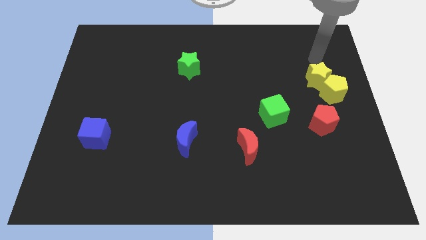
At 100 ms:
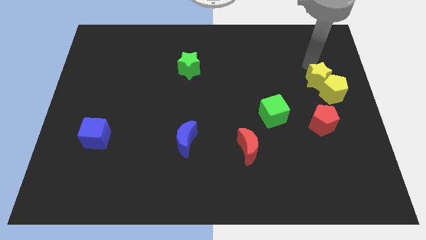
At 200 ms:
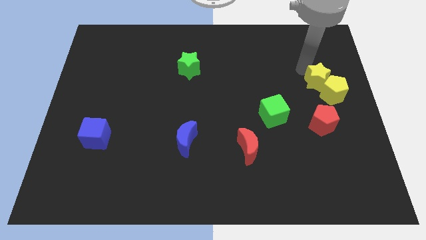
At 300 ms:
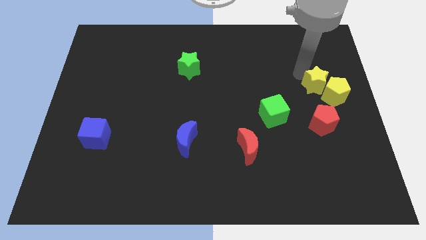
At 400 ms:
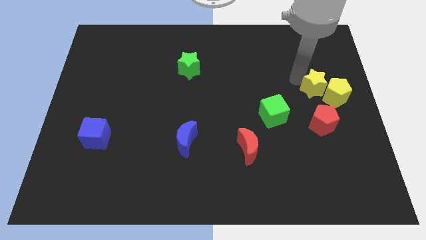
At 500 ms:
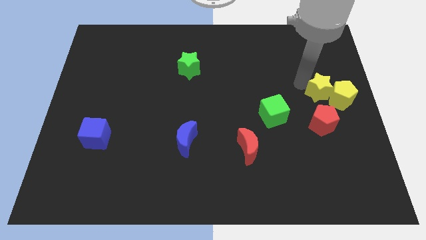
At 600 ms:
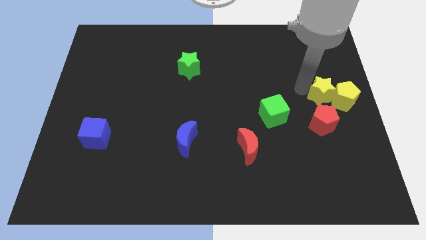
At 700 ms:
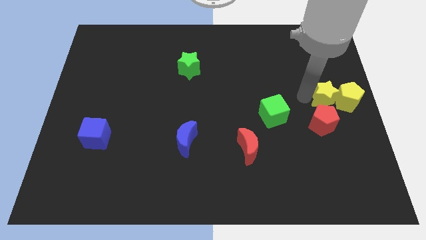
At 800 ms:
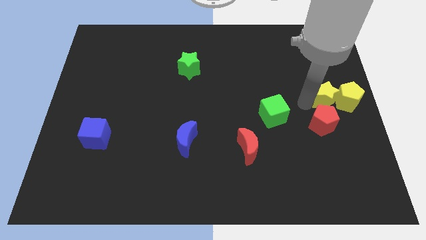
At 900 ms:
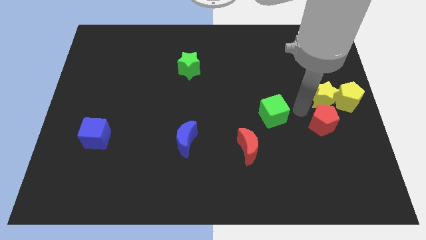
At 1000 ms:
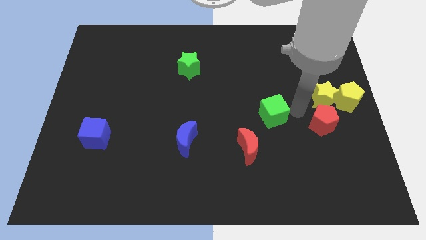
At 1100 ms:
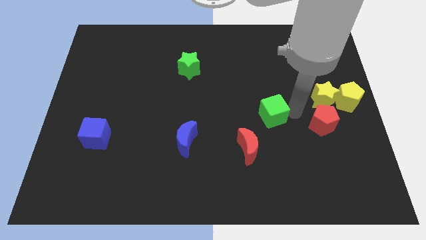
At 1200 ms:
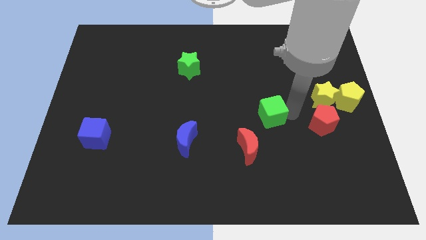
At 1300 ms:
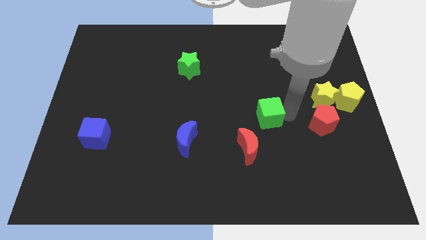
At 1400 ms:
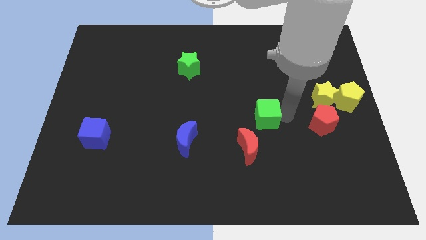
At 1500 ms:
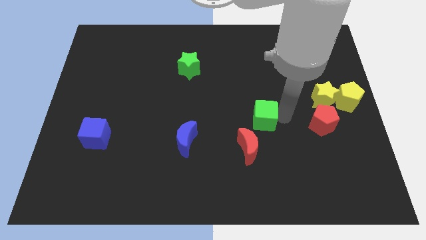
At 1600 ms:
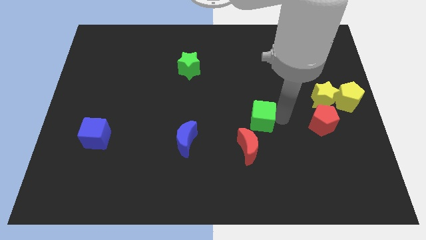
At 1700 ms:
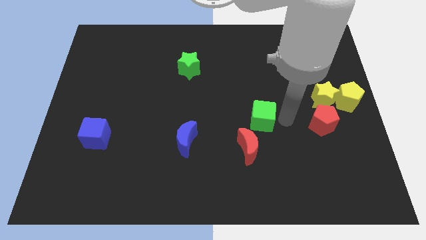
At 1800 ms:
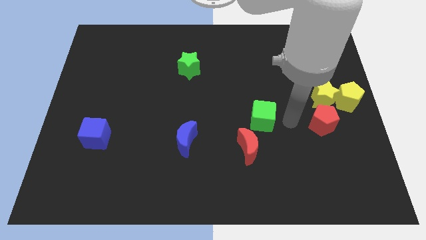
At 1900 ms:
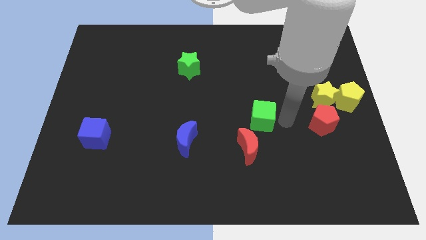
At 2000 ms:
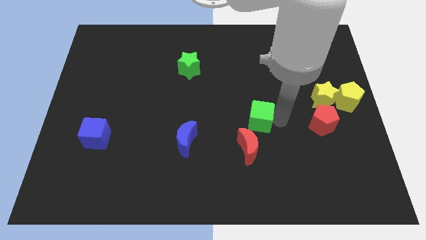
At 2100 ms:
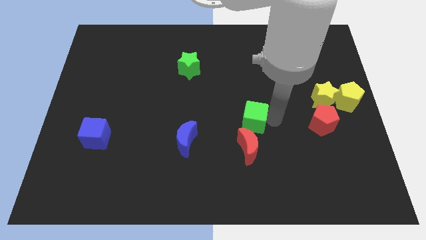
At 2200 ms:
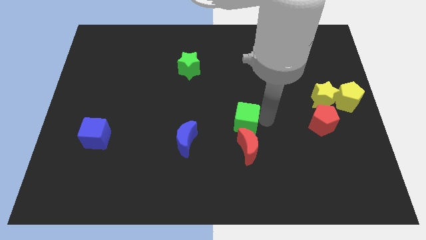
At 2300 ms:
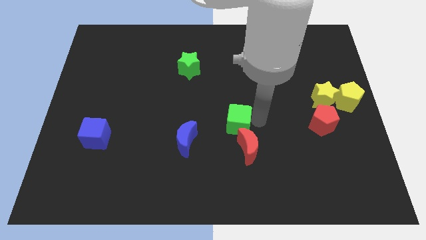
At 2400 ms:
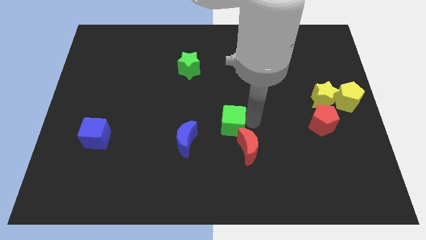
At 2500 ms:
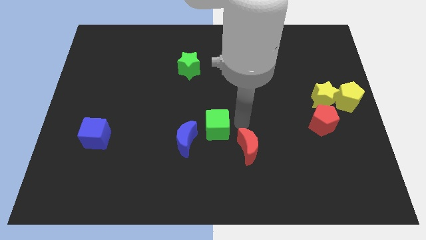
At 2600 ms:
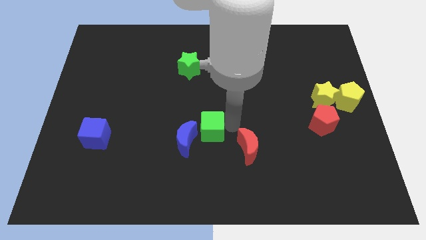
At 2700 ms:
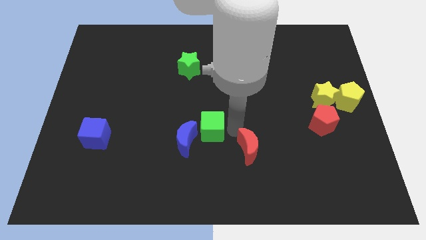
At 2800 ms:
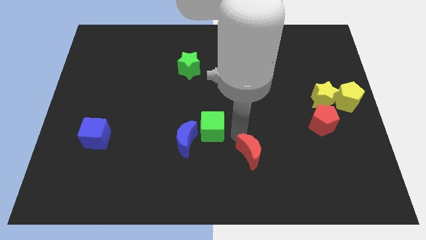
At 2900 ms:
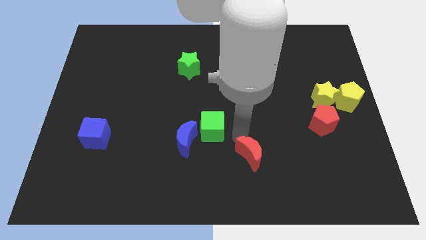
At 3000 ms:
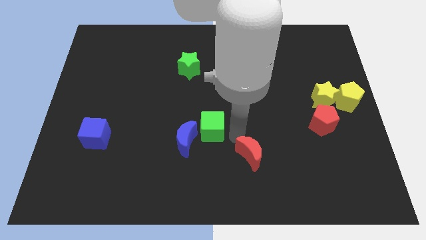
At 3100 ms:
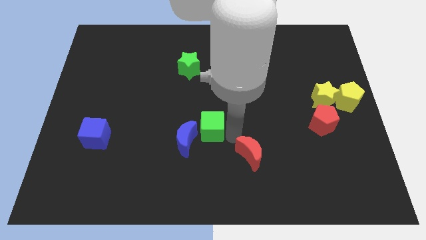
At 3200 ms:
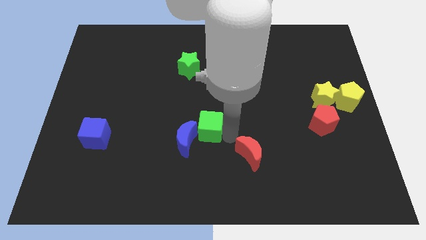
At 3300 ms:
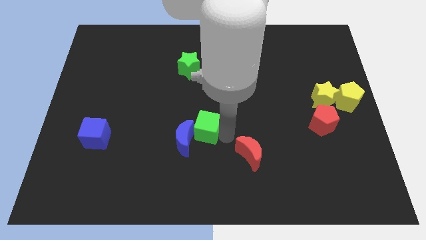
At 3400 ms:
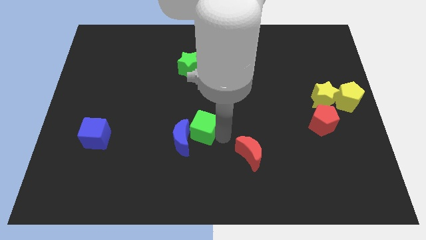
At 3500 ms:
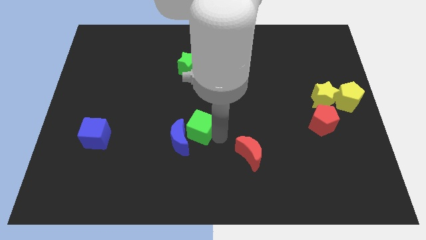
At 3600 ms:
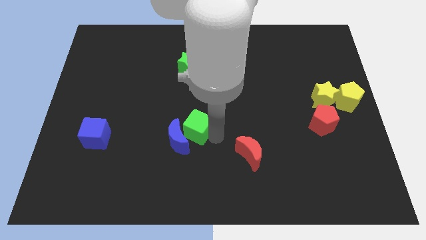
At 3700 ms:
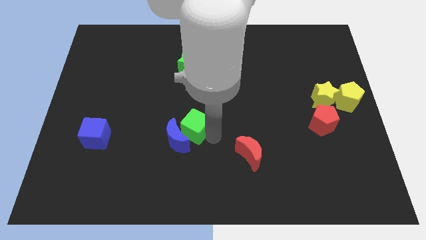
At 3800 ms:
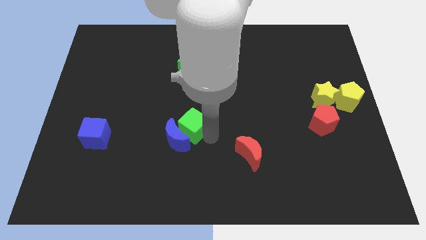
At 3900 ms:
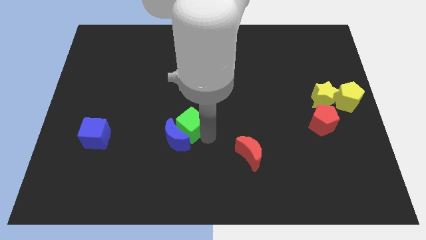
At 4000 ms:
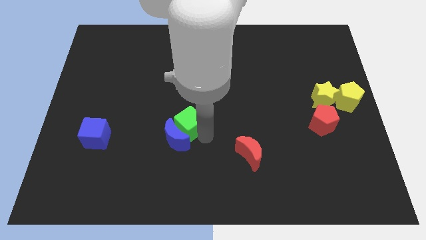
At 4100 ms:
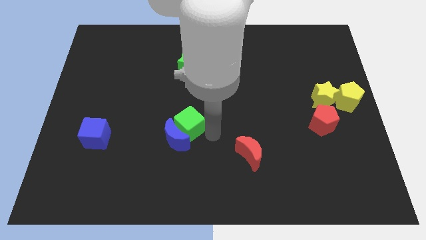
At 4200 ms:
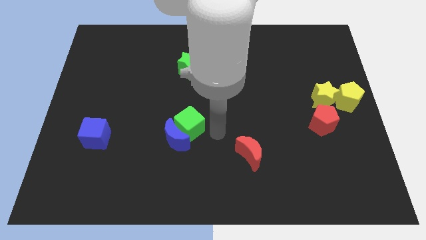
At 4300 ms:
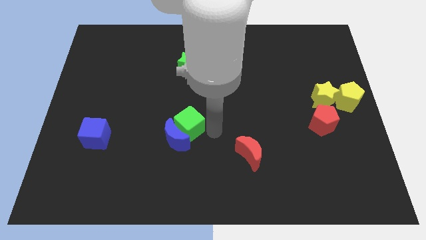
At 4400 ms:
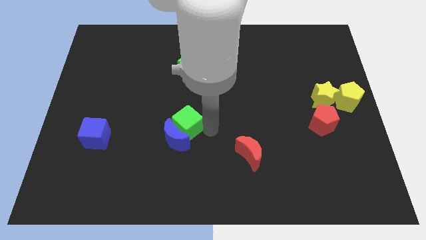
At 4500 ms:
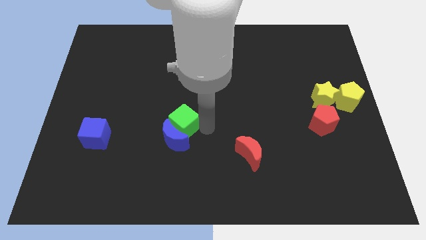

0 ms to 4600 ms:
move the green cube left

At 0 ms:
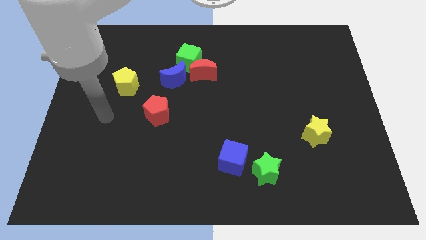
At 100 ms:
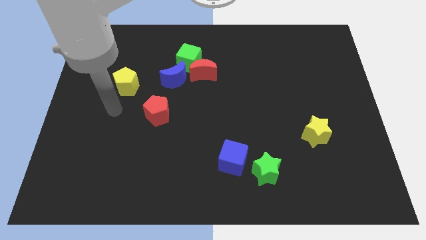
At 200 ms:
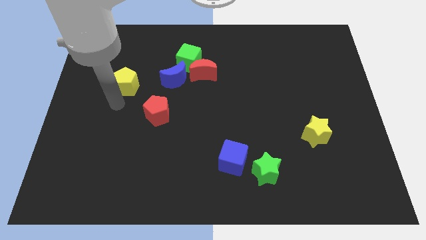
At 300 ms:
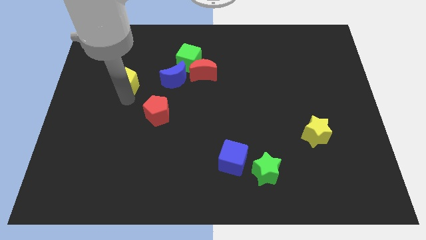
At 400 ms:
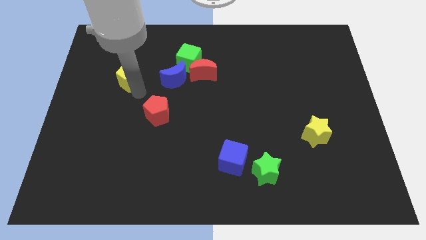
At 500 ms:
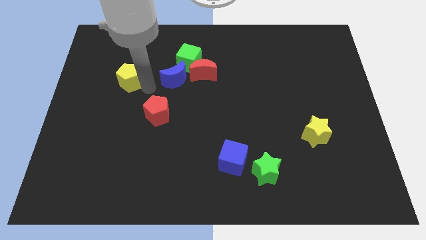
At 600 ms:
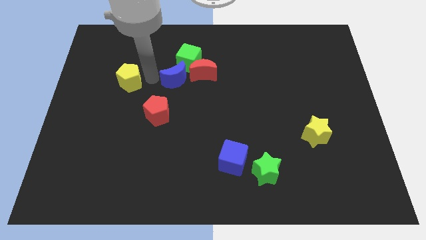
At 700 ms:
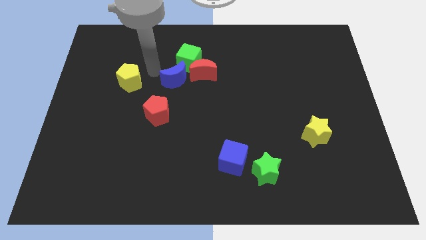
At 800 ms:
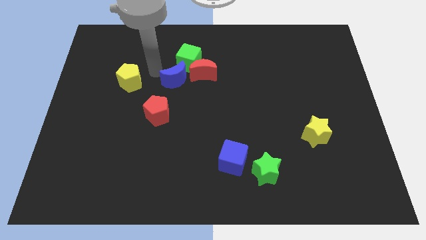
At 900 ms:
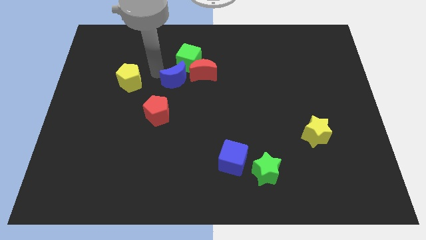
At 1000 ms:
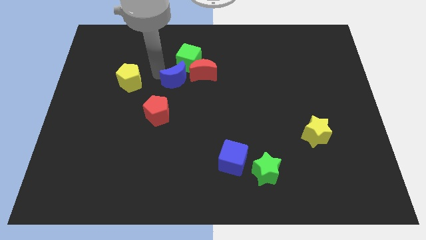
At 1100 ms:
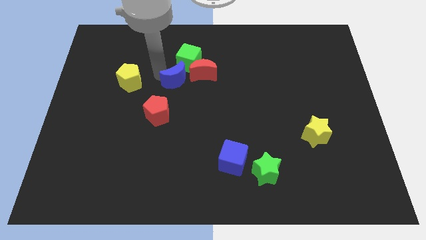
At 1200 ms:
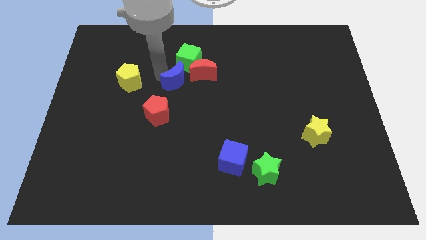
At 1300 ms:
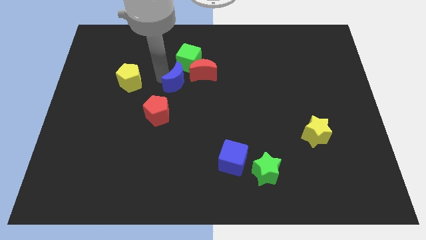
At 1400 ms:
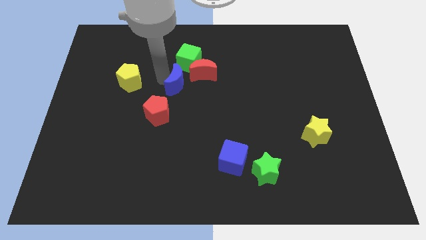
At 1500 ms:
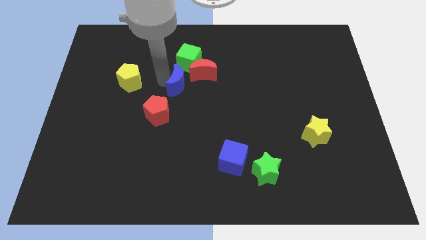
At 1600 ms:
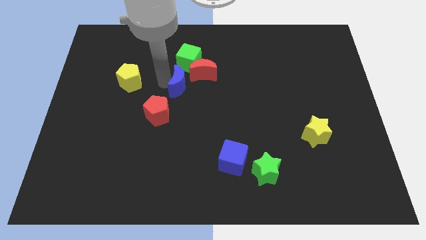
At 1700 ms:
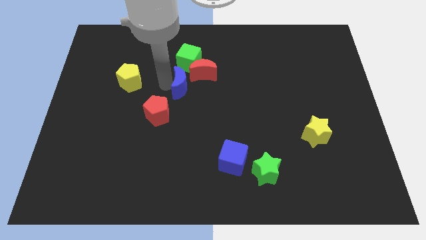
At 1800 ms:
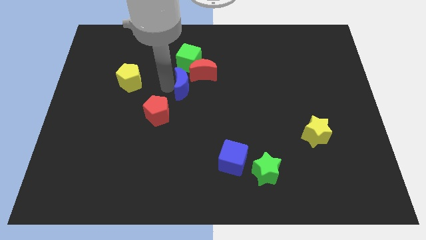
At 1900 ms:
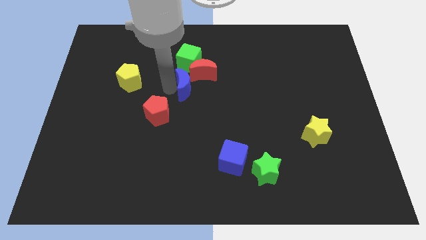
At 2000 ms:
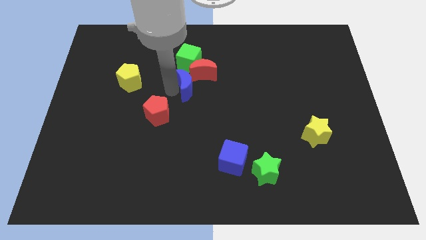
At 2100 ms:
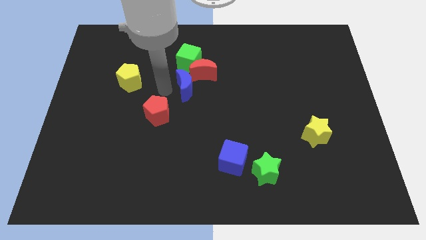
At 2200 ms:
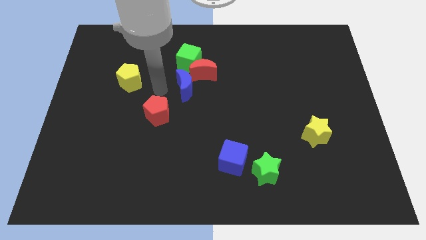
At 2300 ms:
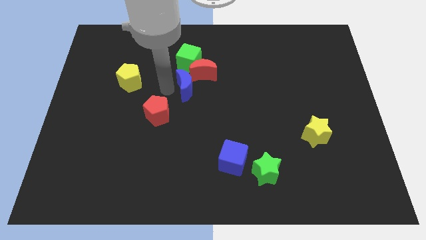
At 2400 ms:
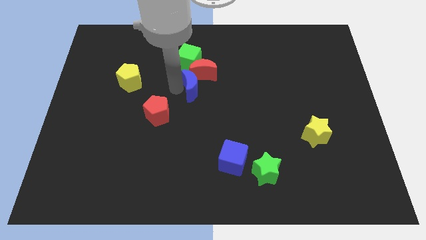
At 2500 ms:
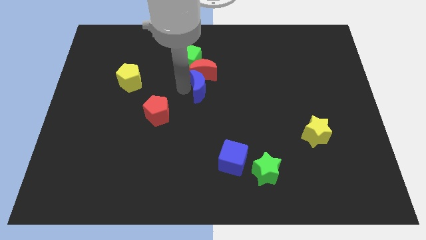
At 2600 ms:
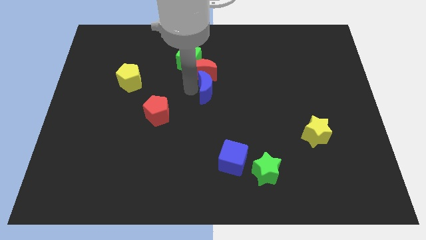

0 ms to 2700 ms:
slightly slide the blue moon right
